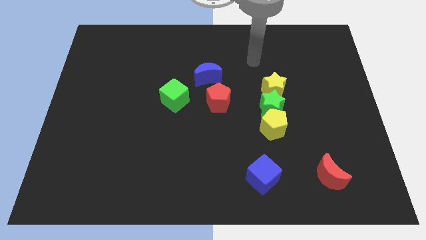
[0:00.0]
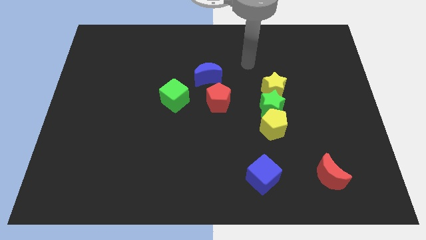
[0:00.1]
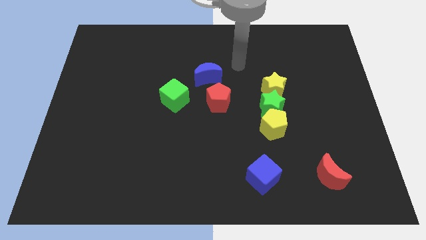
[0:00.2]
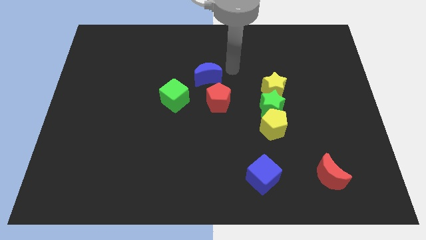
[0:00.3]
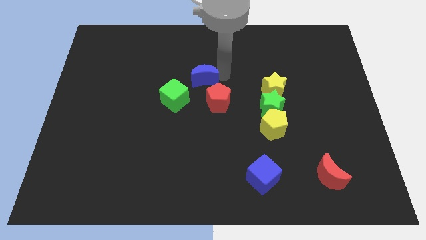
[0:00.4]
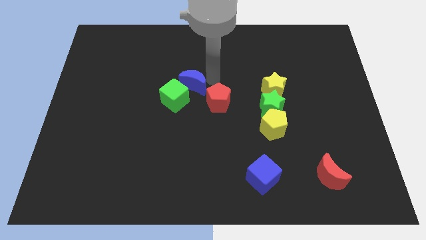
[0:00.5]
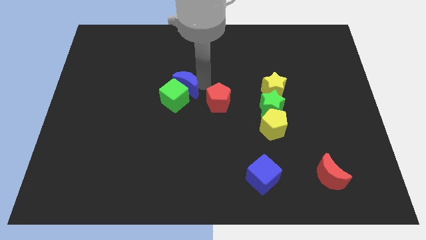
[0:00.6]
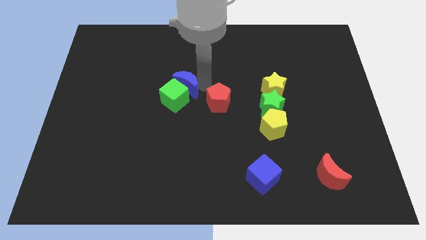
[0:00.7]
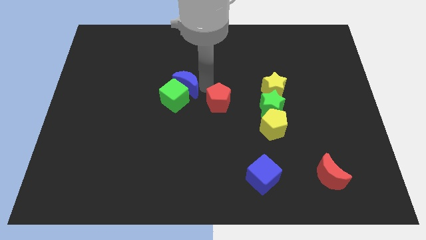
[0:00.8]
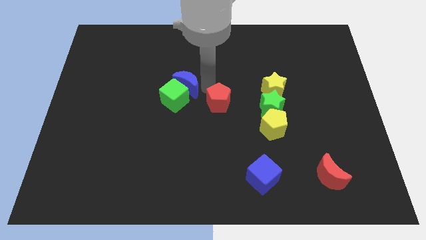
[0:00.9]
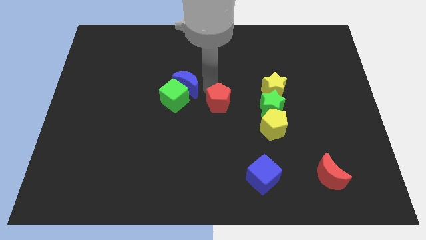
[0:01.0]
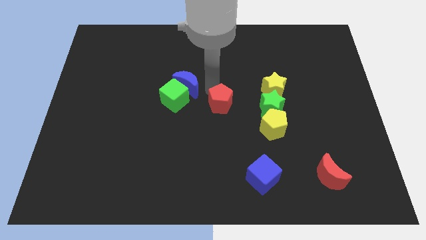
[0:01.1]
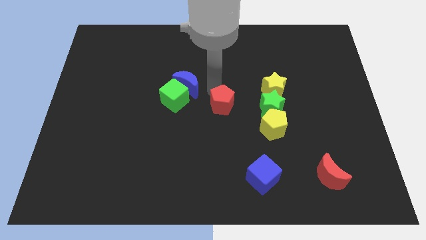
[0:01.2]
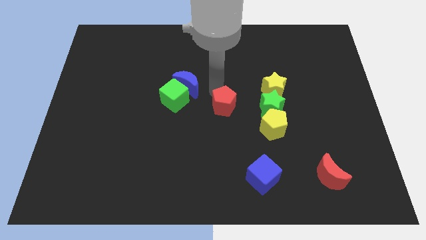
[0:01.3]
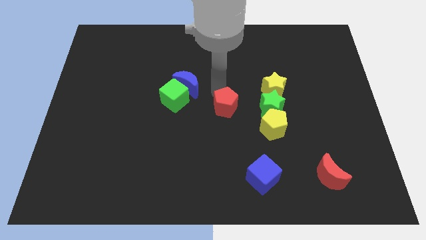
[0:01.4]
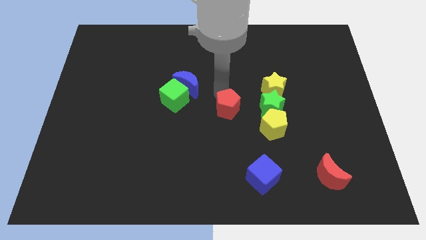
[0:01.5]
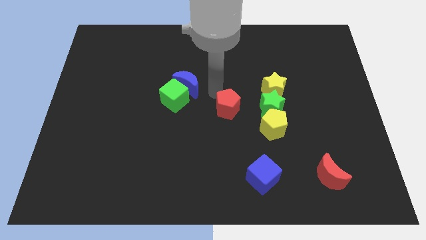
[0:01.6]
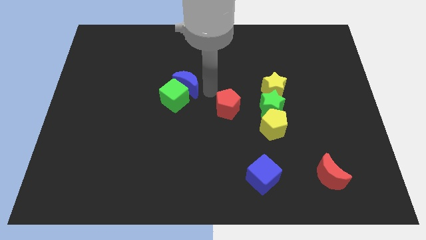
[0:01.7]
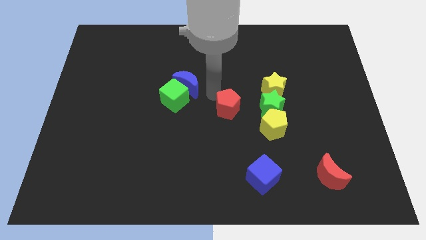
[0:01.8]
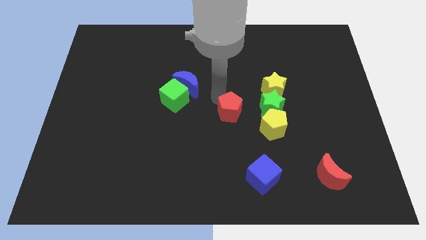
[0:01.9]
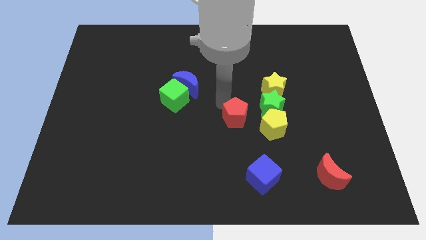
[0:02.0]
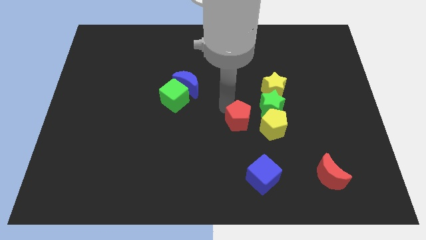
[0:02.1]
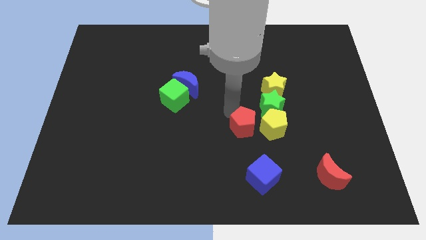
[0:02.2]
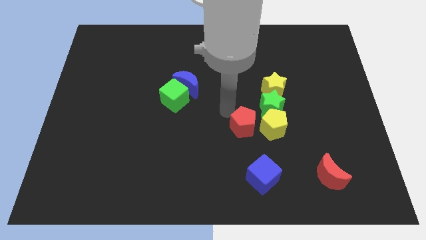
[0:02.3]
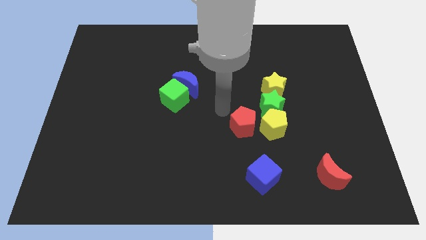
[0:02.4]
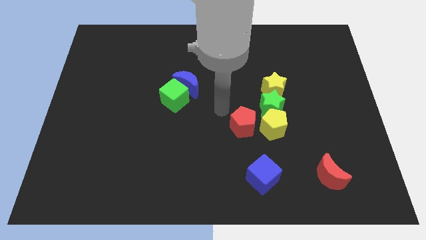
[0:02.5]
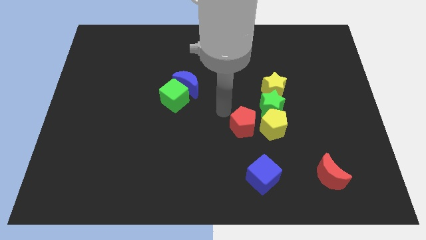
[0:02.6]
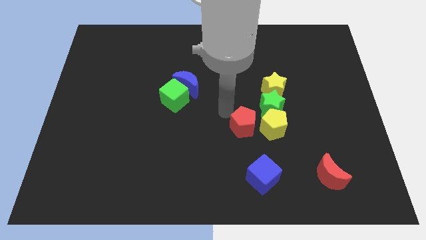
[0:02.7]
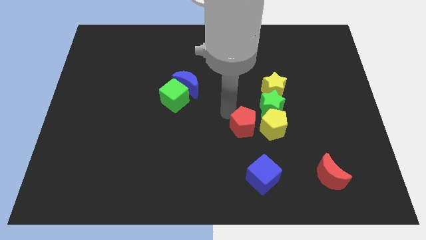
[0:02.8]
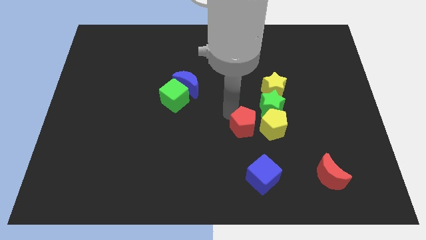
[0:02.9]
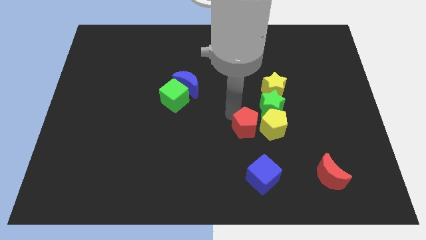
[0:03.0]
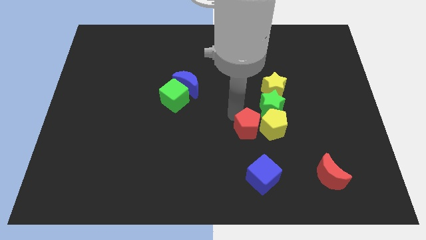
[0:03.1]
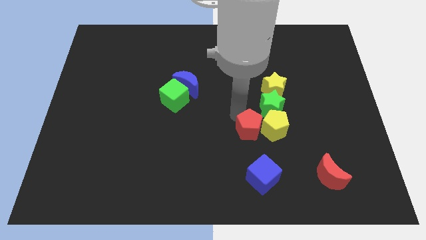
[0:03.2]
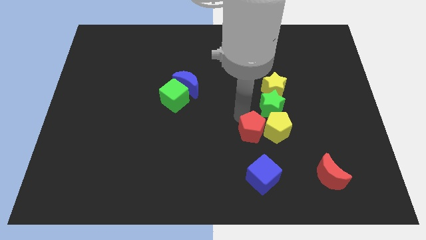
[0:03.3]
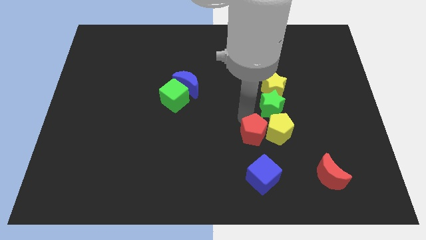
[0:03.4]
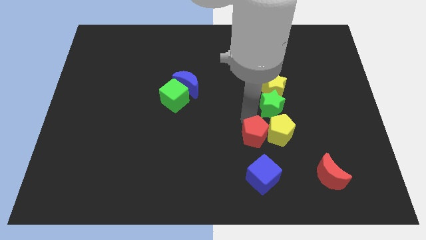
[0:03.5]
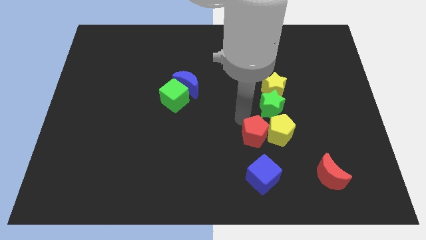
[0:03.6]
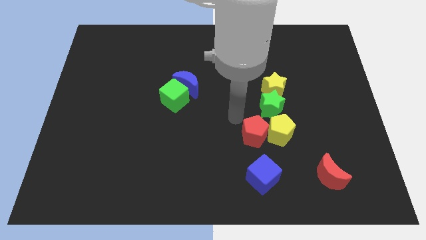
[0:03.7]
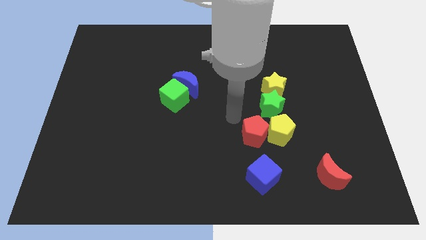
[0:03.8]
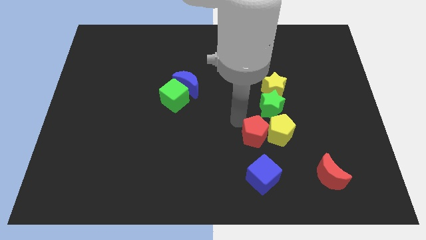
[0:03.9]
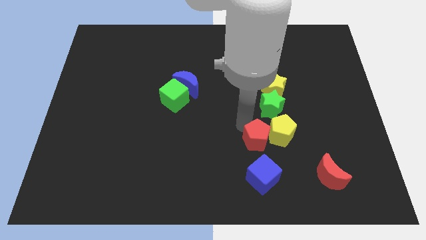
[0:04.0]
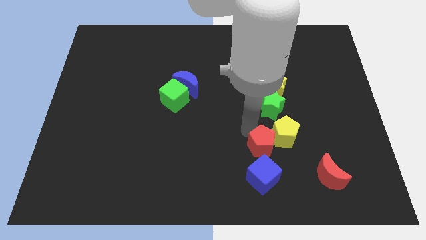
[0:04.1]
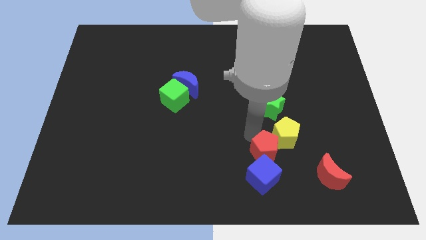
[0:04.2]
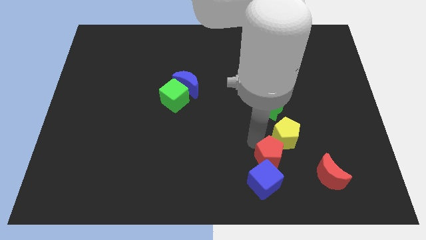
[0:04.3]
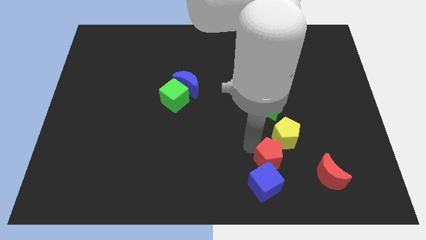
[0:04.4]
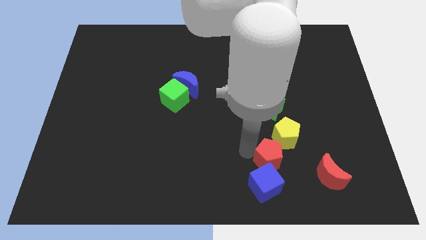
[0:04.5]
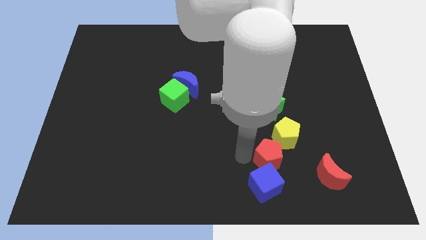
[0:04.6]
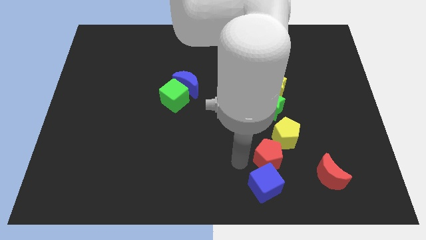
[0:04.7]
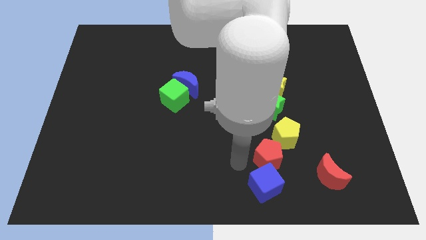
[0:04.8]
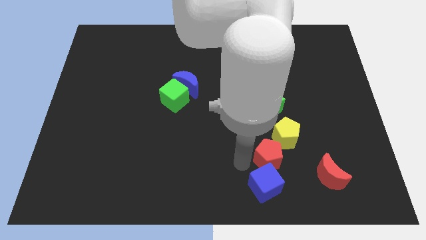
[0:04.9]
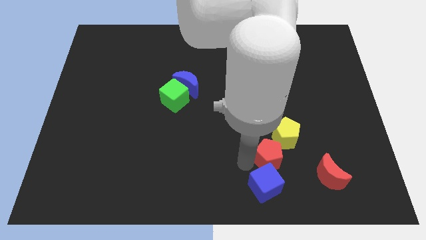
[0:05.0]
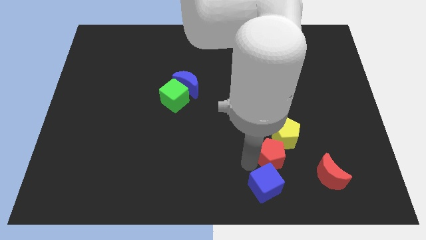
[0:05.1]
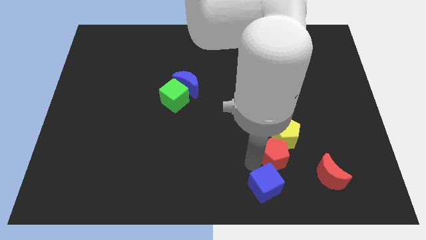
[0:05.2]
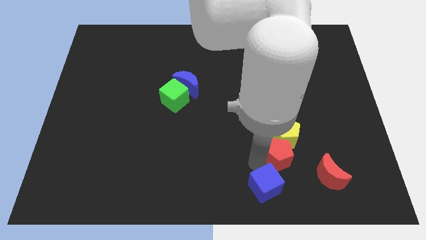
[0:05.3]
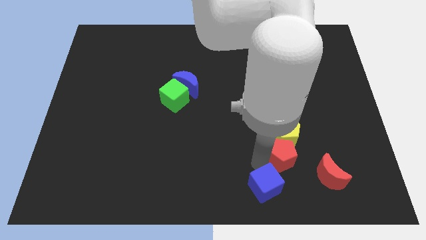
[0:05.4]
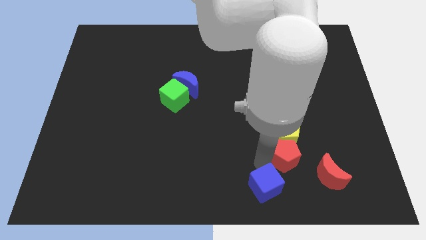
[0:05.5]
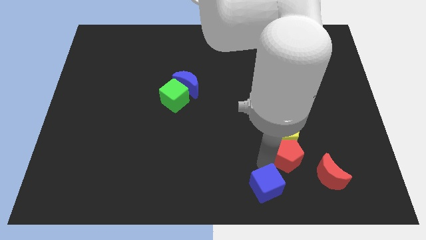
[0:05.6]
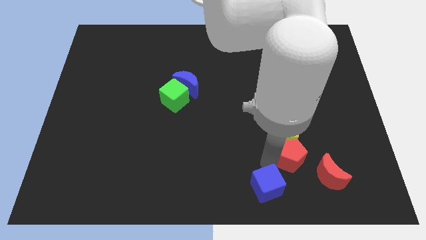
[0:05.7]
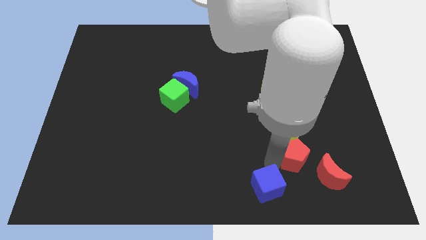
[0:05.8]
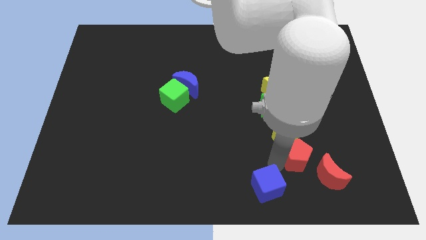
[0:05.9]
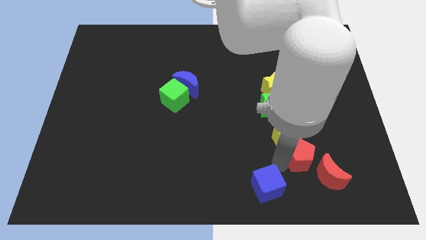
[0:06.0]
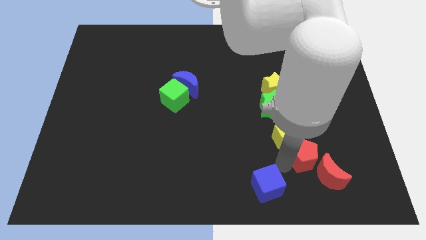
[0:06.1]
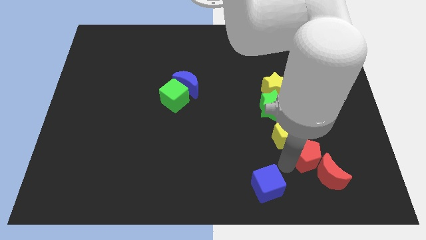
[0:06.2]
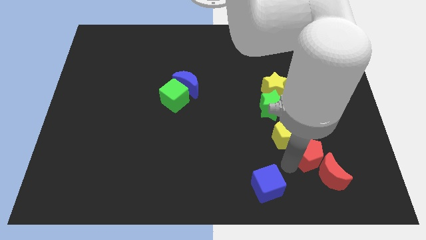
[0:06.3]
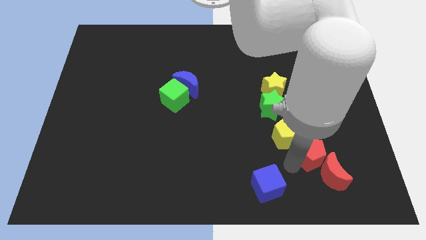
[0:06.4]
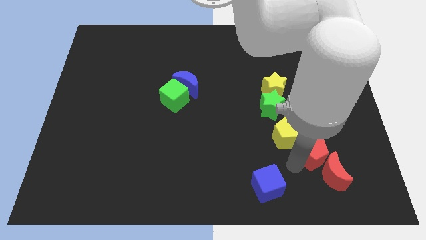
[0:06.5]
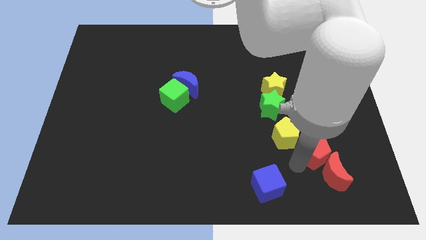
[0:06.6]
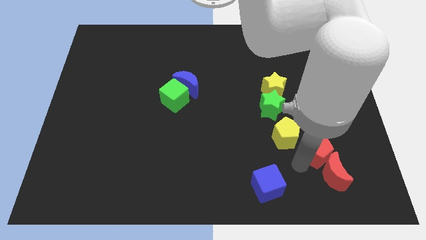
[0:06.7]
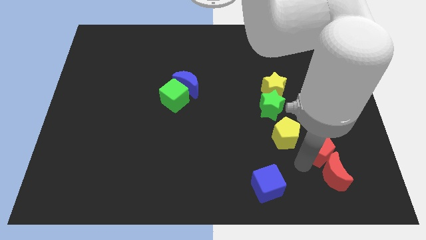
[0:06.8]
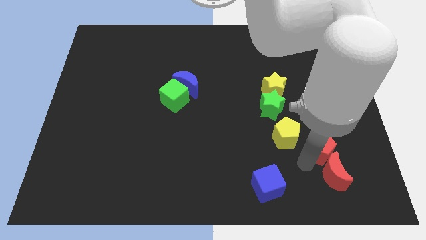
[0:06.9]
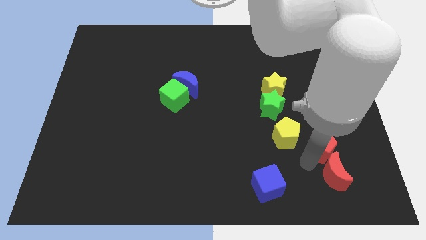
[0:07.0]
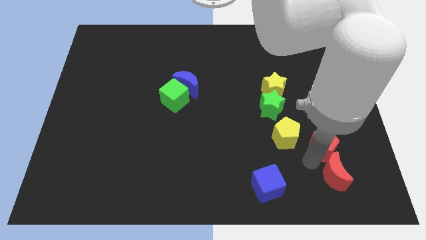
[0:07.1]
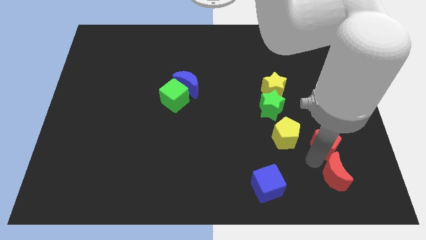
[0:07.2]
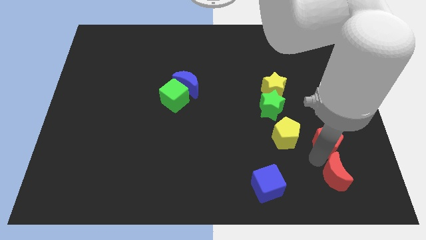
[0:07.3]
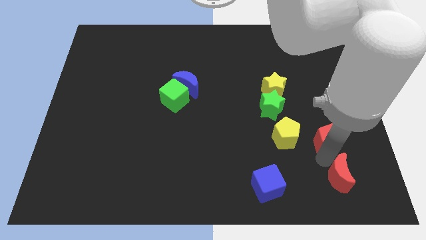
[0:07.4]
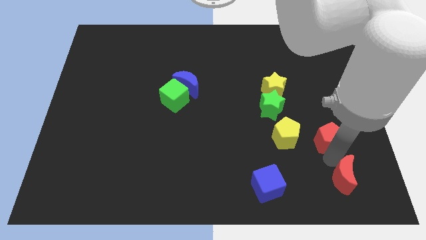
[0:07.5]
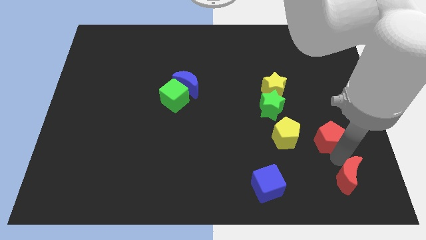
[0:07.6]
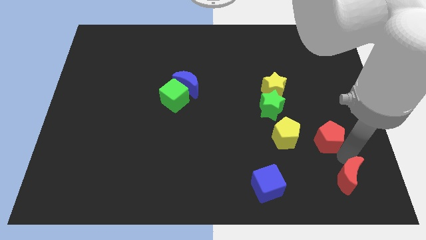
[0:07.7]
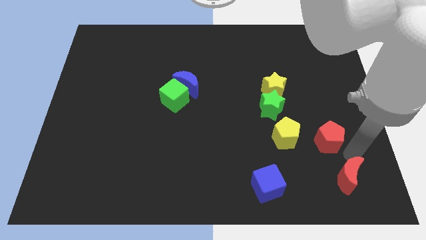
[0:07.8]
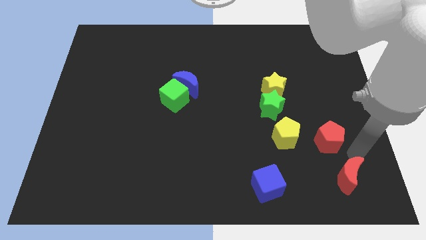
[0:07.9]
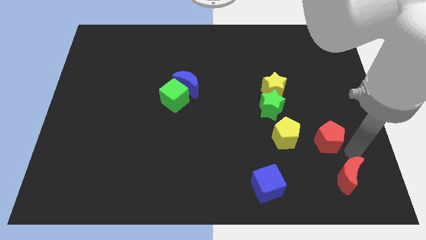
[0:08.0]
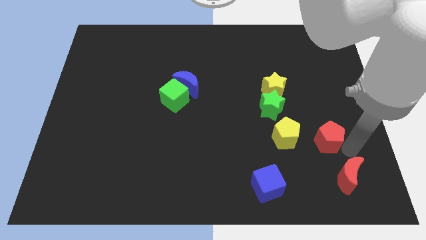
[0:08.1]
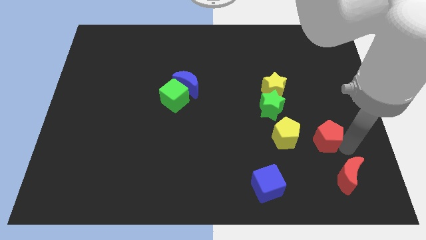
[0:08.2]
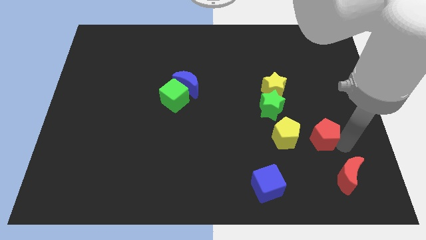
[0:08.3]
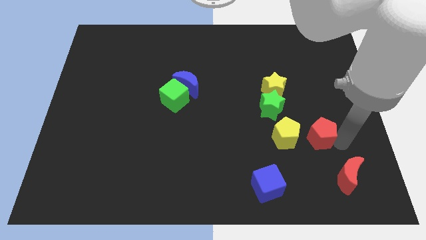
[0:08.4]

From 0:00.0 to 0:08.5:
push the red pentagon to the bottom right of the green star
